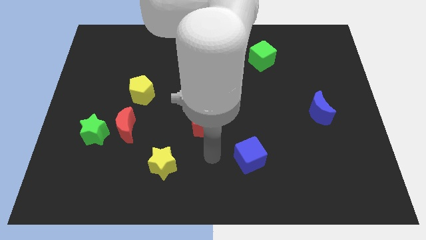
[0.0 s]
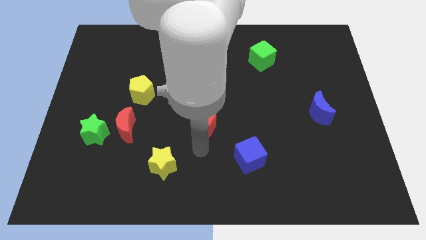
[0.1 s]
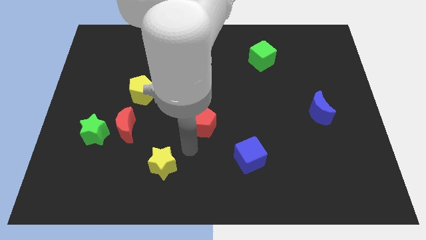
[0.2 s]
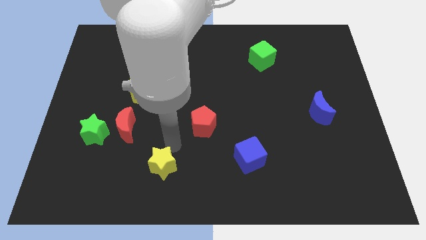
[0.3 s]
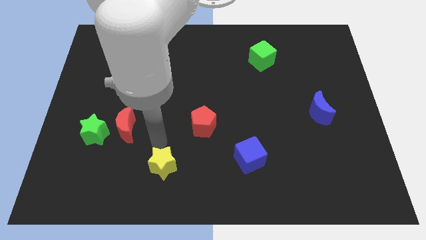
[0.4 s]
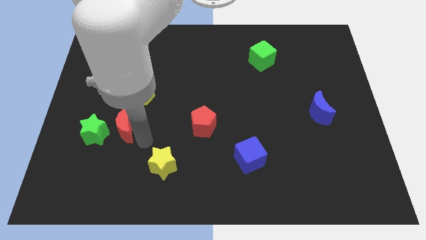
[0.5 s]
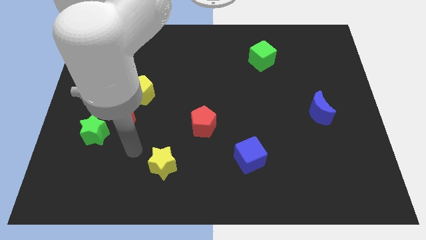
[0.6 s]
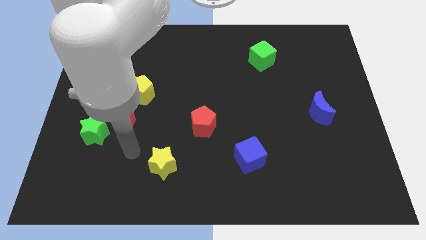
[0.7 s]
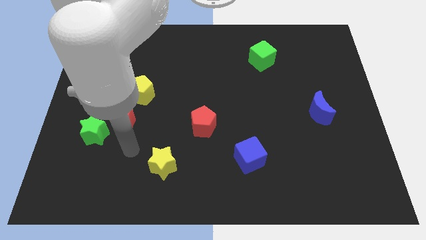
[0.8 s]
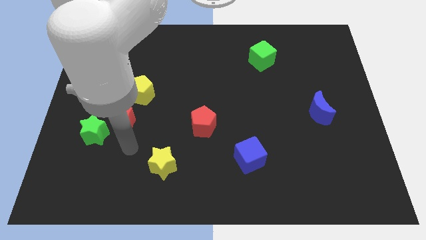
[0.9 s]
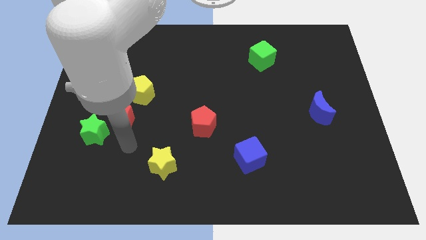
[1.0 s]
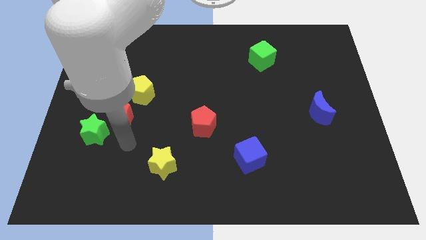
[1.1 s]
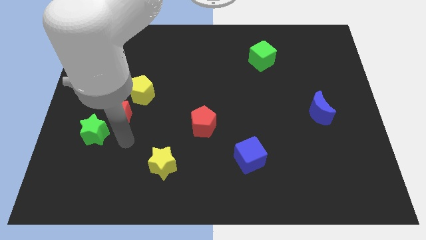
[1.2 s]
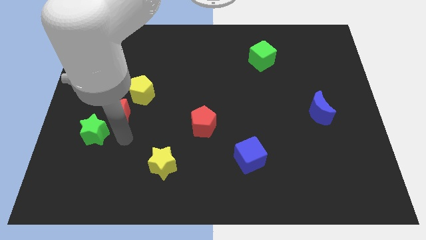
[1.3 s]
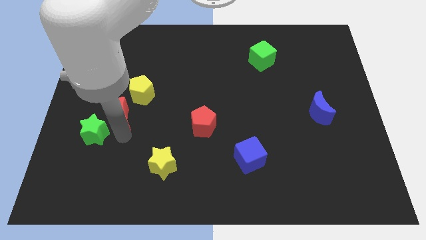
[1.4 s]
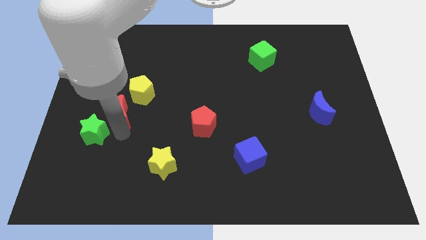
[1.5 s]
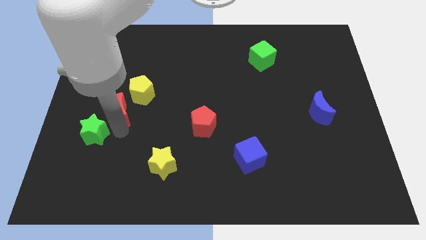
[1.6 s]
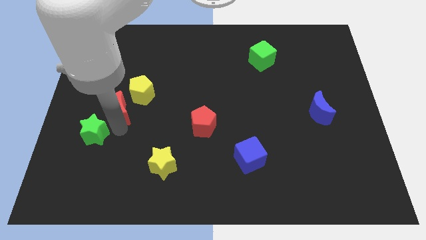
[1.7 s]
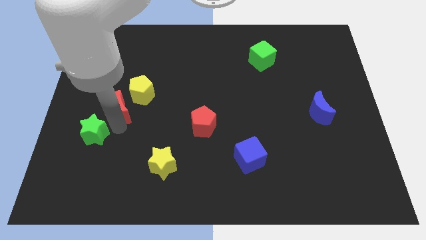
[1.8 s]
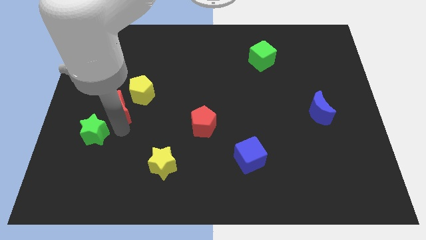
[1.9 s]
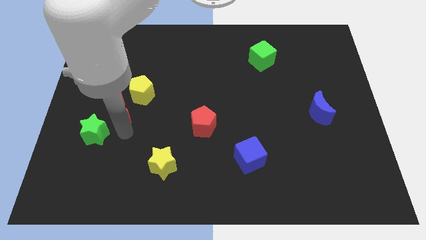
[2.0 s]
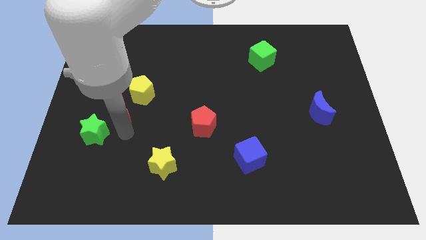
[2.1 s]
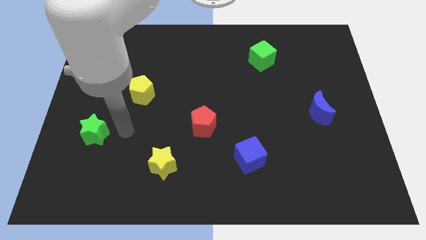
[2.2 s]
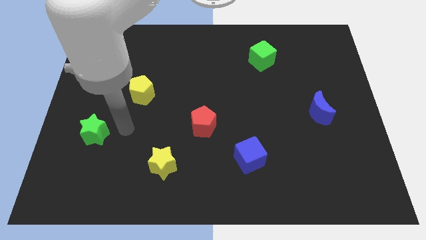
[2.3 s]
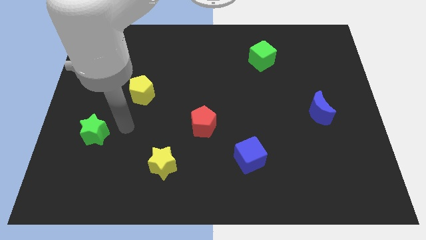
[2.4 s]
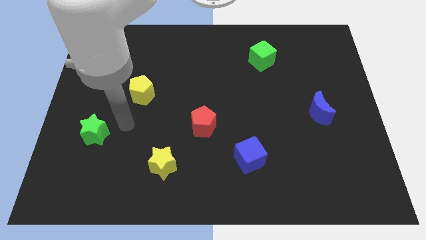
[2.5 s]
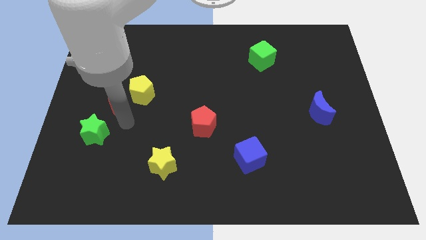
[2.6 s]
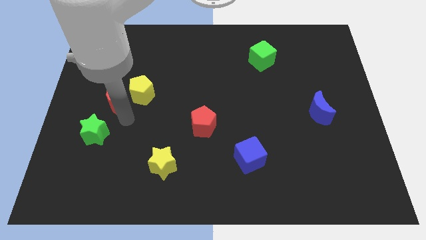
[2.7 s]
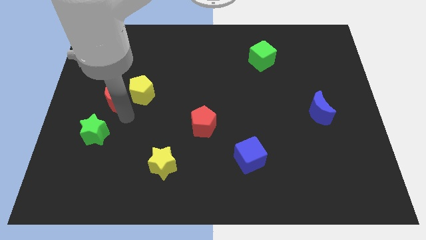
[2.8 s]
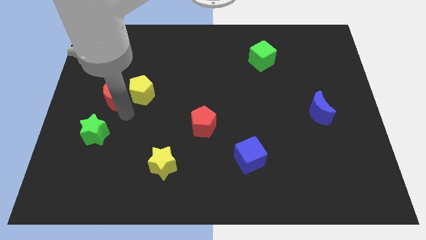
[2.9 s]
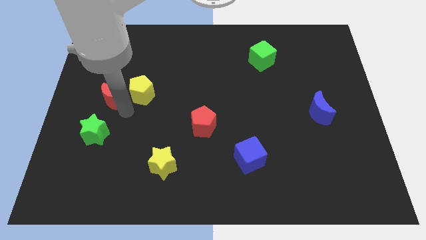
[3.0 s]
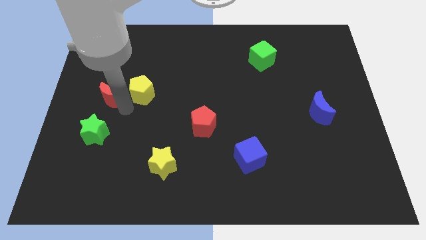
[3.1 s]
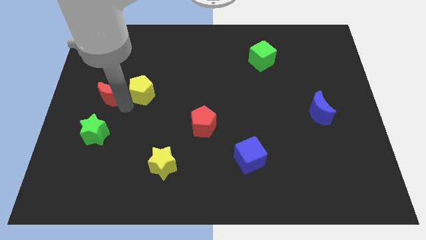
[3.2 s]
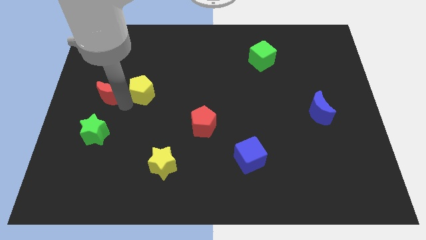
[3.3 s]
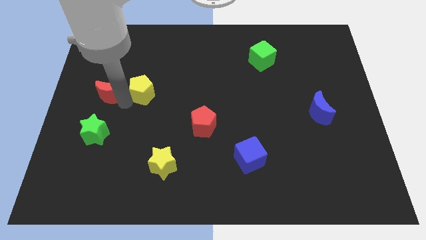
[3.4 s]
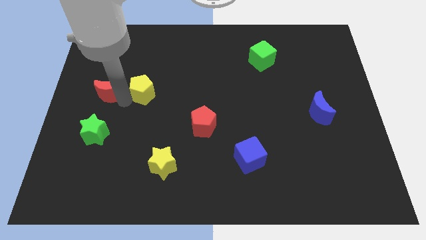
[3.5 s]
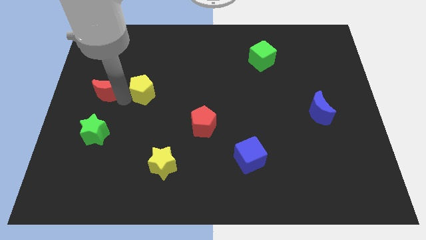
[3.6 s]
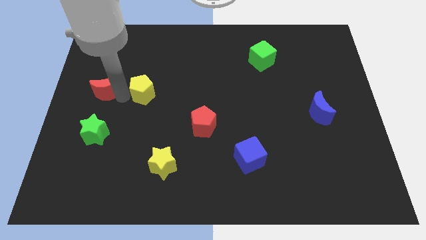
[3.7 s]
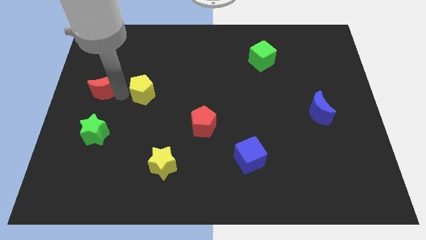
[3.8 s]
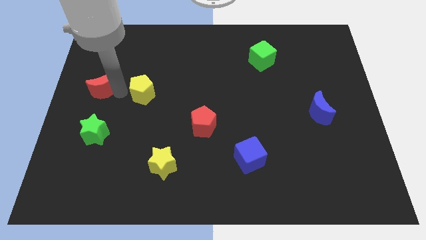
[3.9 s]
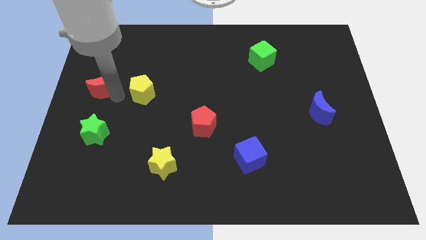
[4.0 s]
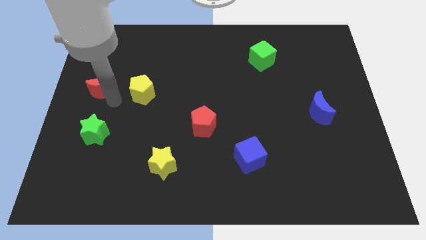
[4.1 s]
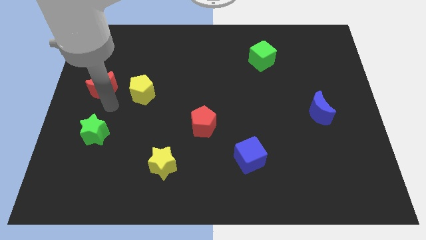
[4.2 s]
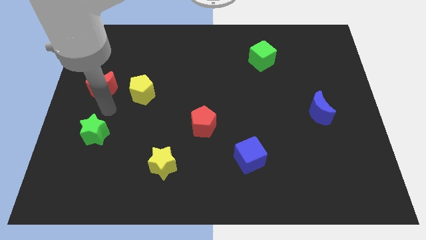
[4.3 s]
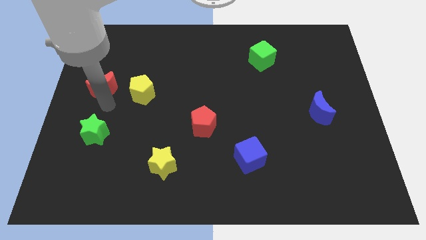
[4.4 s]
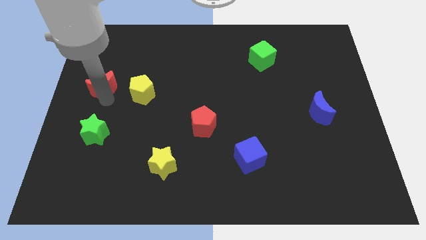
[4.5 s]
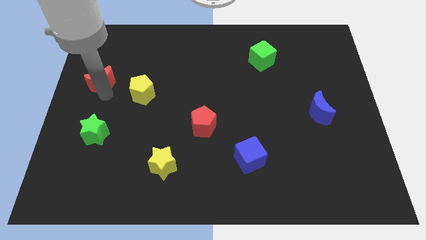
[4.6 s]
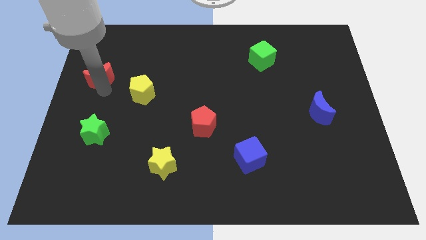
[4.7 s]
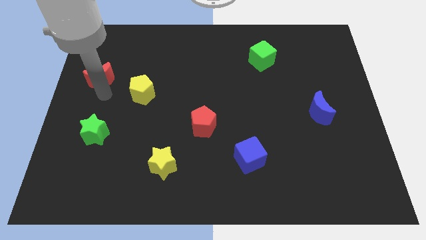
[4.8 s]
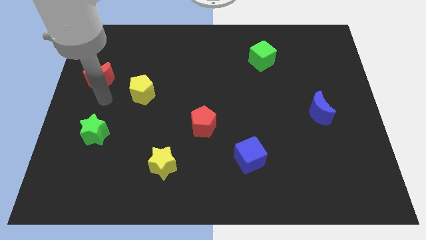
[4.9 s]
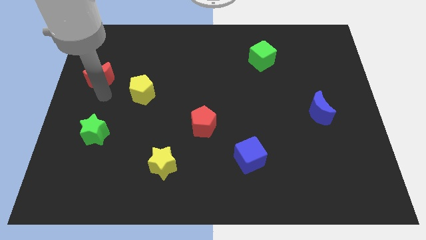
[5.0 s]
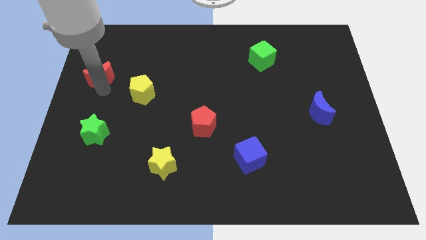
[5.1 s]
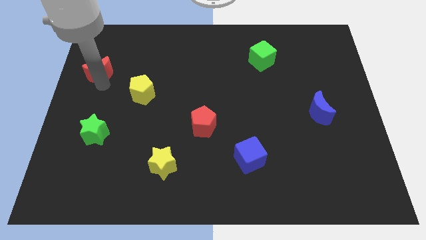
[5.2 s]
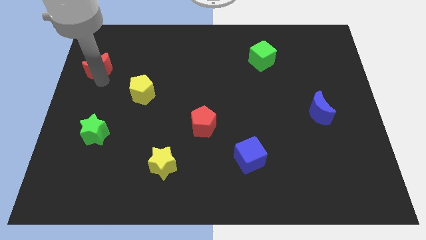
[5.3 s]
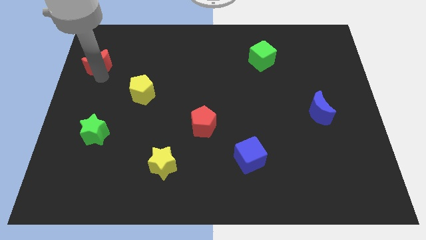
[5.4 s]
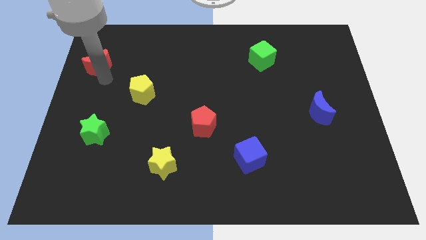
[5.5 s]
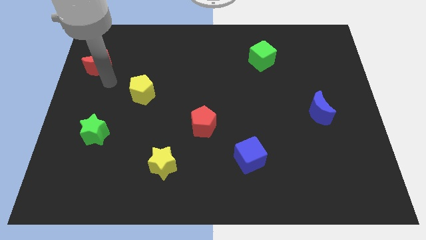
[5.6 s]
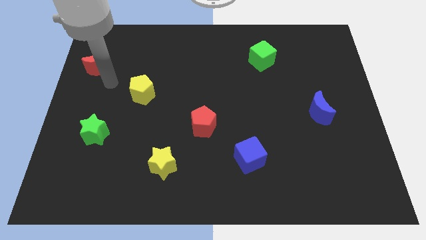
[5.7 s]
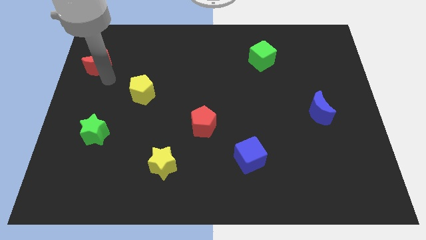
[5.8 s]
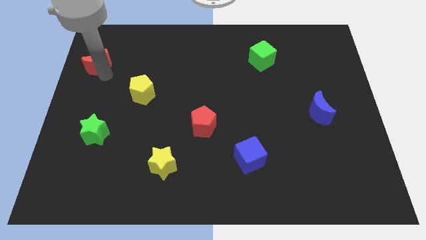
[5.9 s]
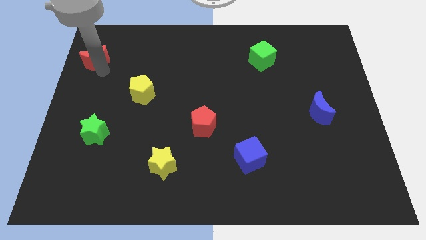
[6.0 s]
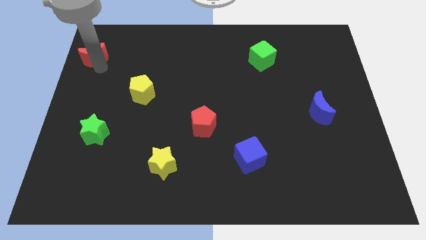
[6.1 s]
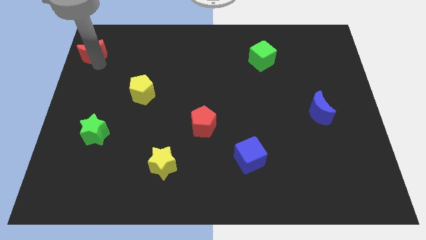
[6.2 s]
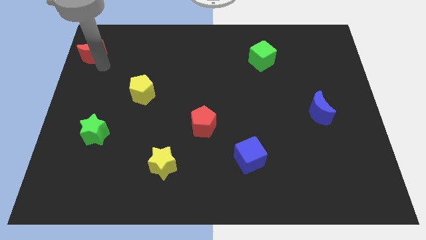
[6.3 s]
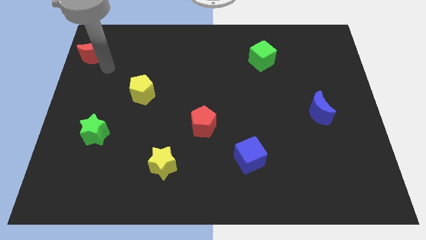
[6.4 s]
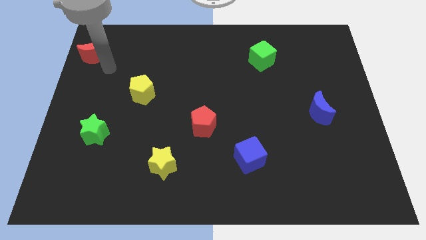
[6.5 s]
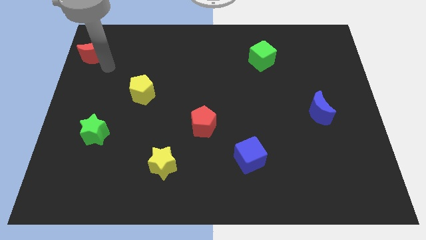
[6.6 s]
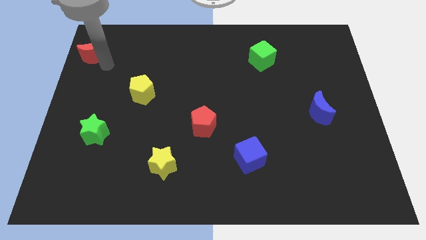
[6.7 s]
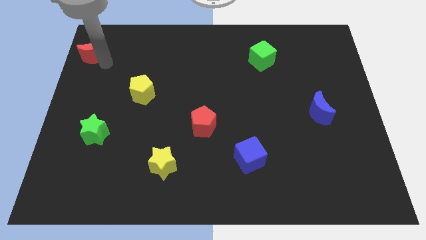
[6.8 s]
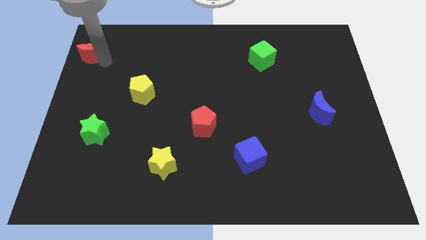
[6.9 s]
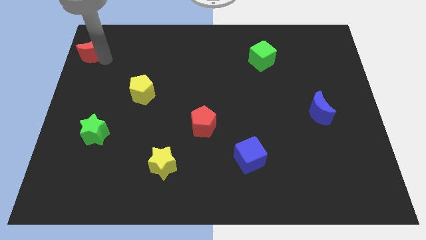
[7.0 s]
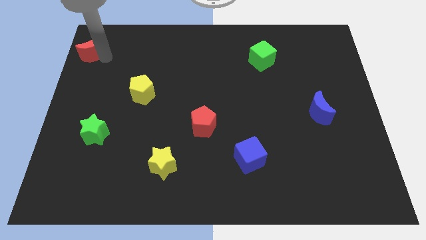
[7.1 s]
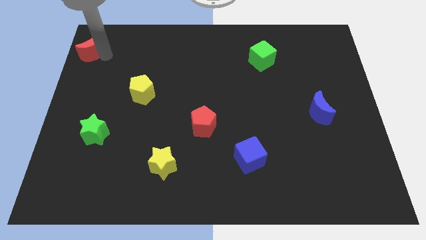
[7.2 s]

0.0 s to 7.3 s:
slide the red moon to the upper left corner
